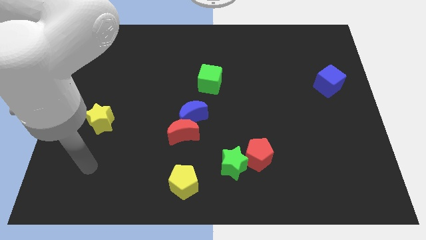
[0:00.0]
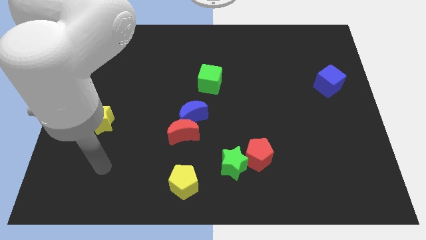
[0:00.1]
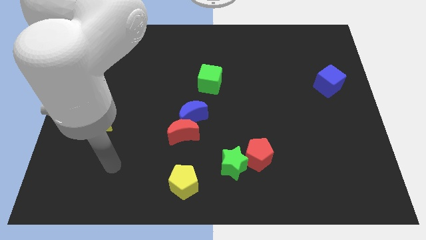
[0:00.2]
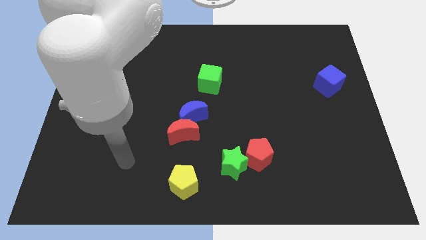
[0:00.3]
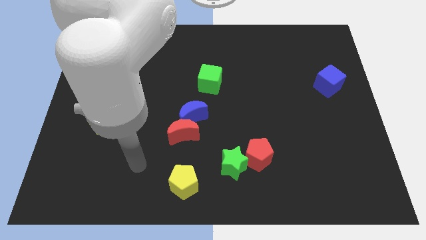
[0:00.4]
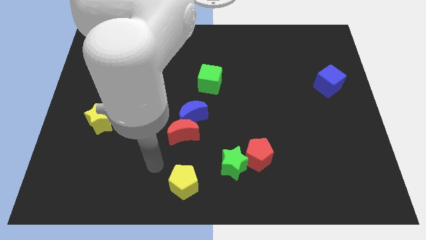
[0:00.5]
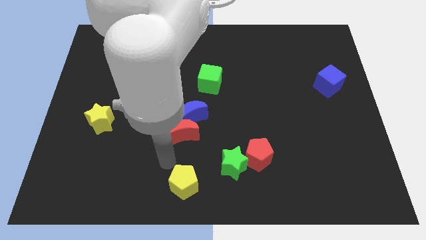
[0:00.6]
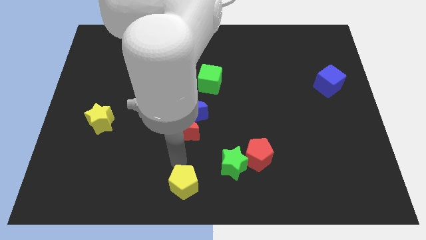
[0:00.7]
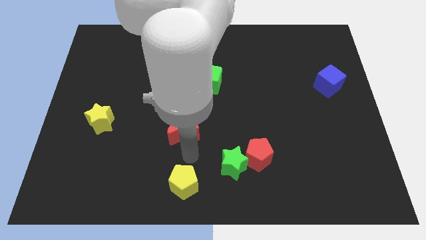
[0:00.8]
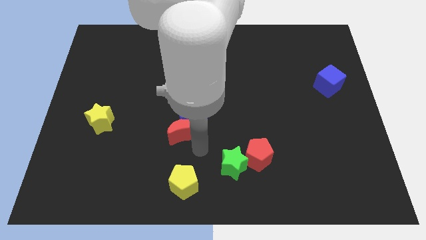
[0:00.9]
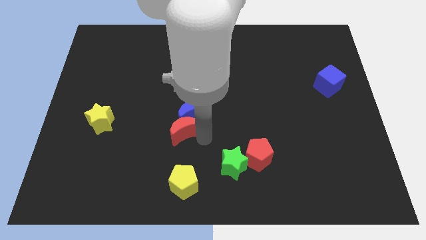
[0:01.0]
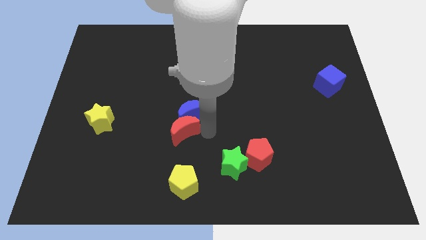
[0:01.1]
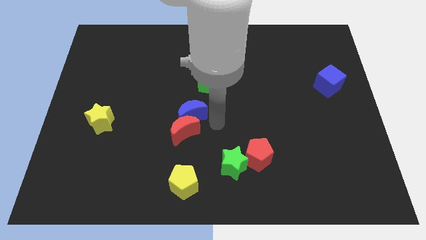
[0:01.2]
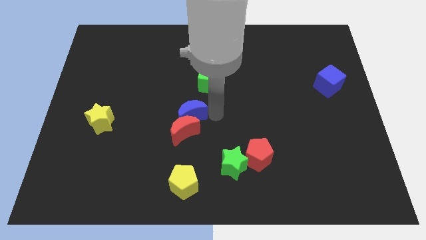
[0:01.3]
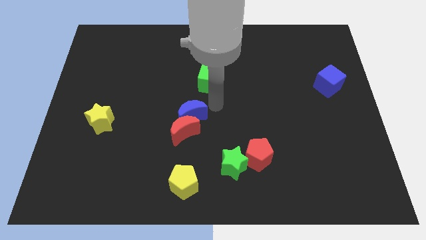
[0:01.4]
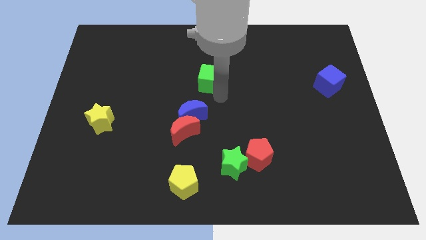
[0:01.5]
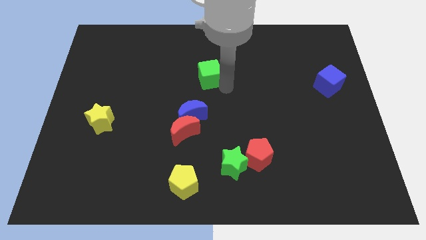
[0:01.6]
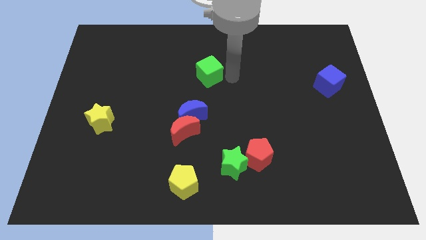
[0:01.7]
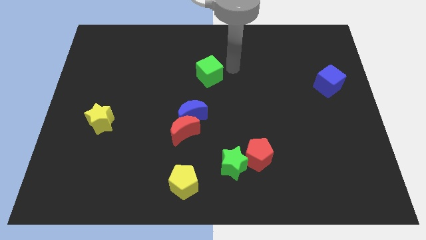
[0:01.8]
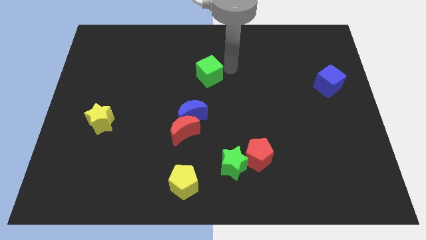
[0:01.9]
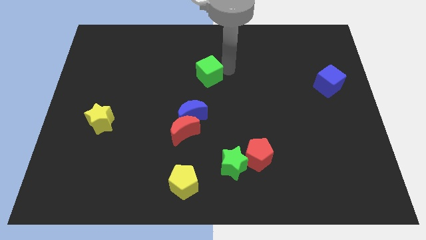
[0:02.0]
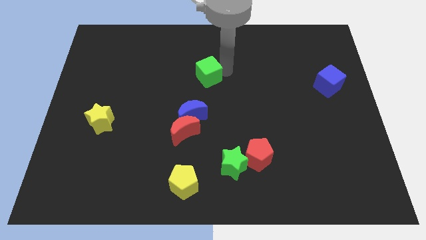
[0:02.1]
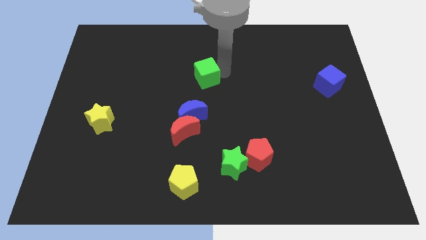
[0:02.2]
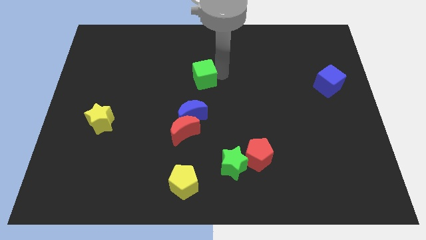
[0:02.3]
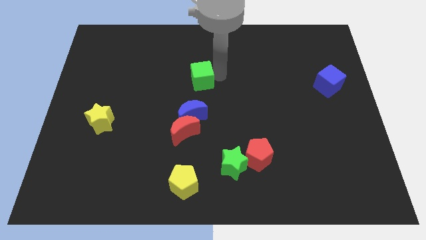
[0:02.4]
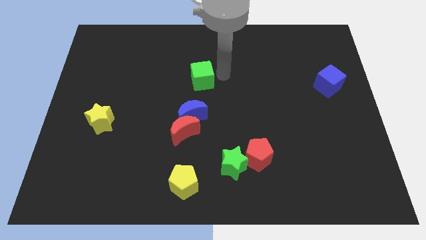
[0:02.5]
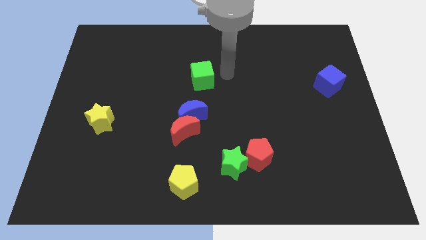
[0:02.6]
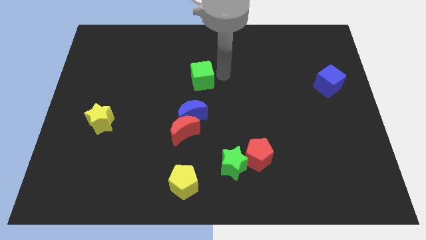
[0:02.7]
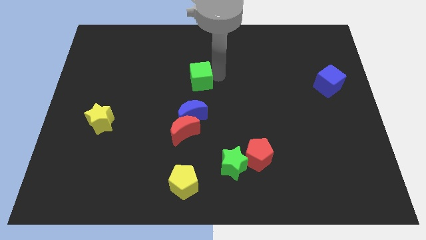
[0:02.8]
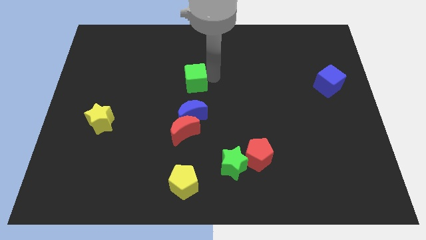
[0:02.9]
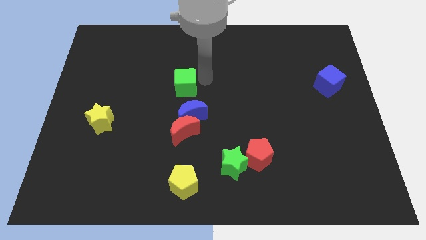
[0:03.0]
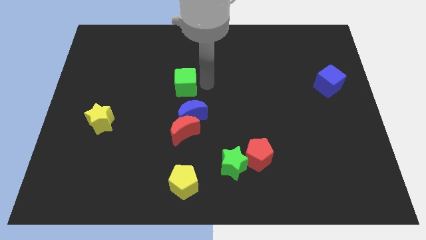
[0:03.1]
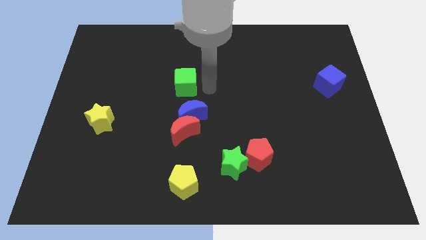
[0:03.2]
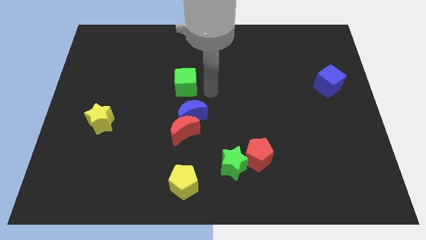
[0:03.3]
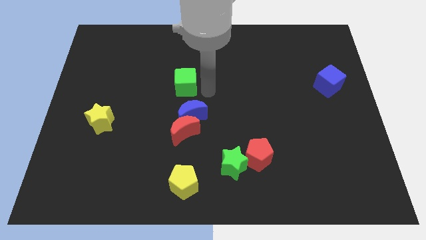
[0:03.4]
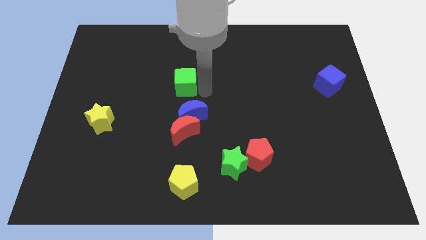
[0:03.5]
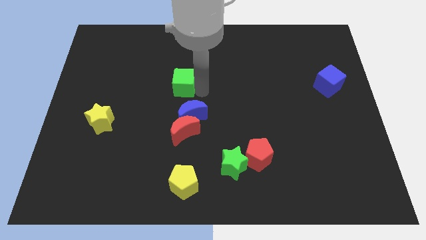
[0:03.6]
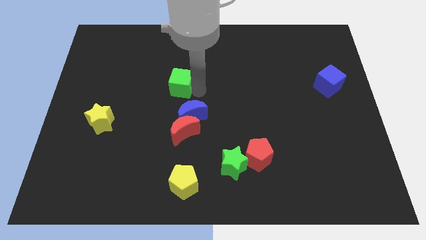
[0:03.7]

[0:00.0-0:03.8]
slightly move the green cube left

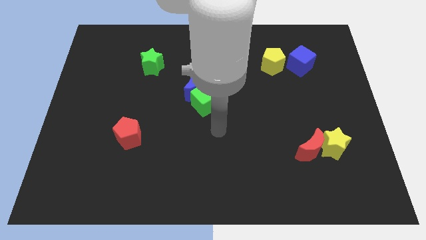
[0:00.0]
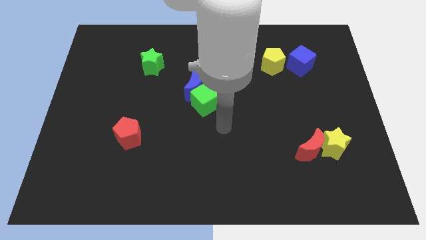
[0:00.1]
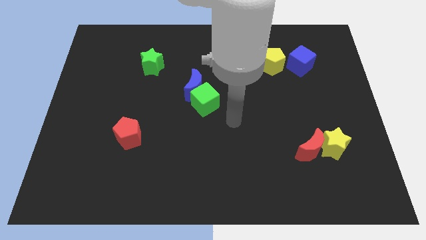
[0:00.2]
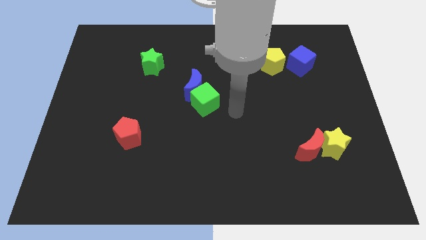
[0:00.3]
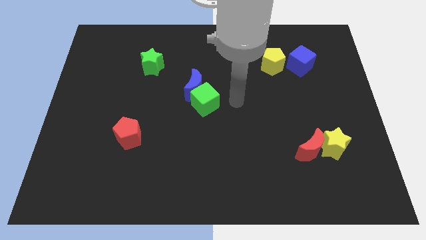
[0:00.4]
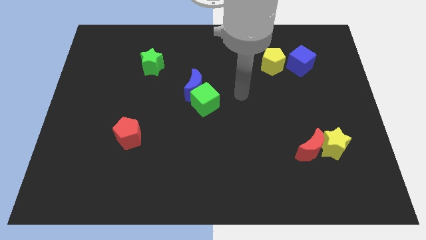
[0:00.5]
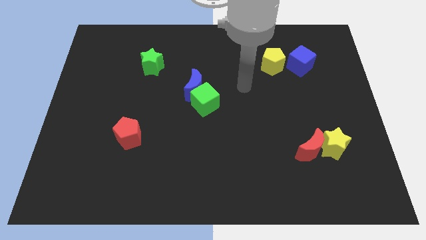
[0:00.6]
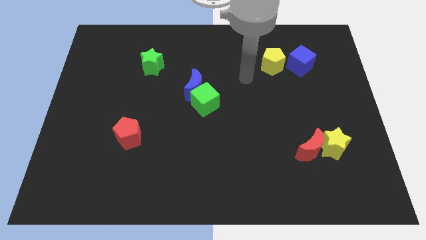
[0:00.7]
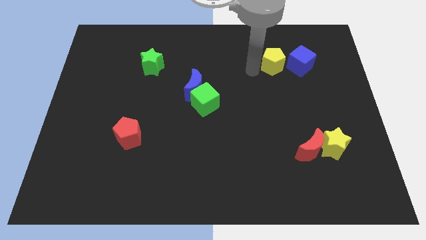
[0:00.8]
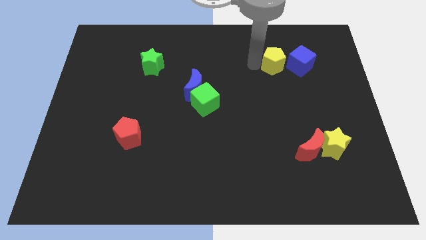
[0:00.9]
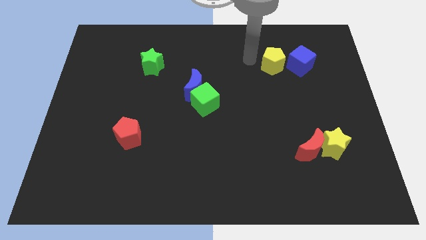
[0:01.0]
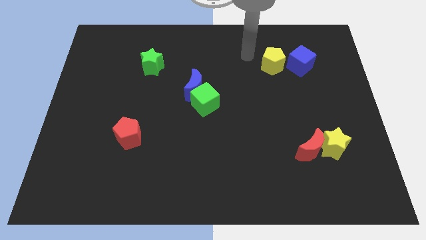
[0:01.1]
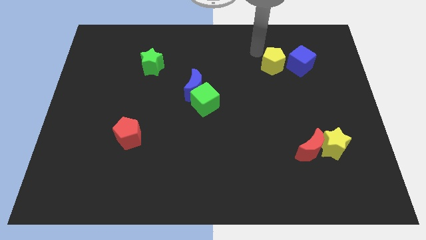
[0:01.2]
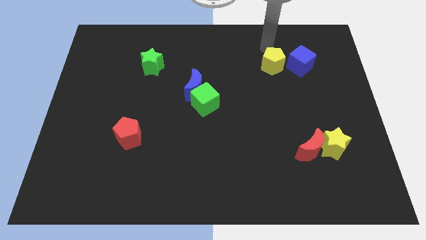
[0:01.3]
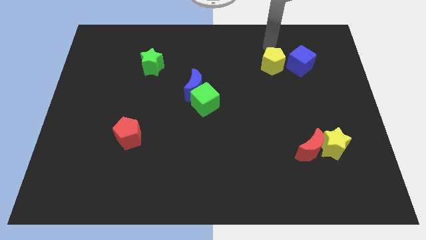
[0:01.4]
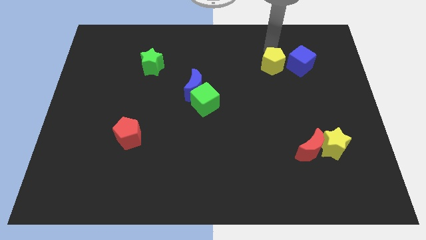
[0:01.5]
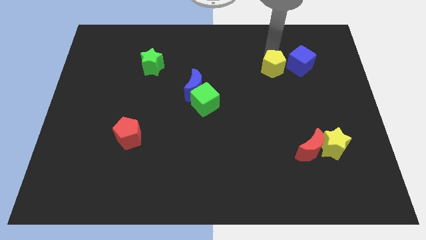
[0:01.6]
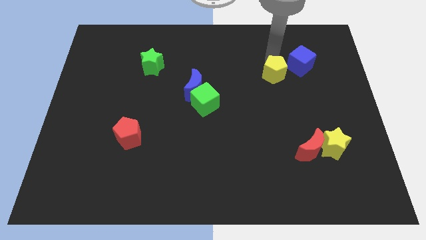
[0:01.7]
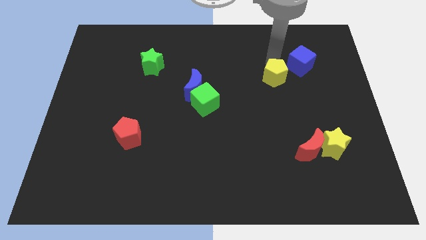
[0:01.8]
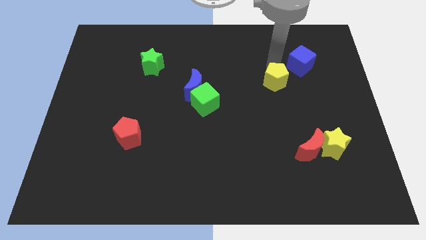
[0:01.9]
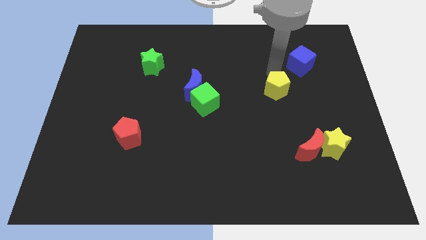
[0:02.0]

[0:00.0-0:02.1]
slightly move the yellow pentagon downwards

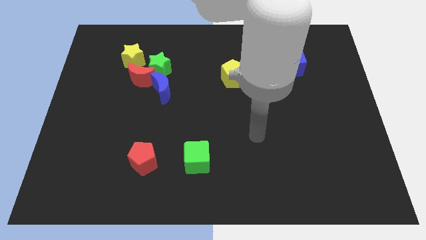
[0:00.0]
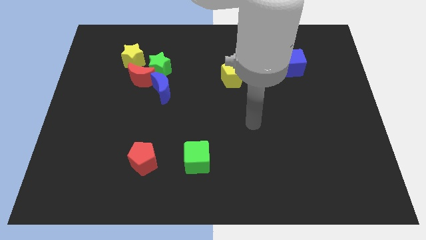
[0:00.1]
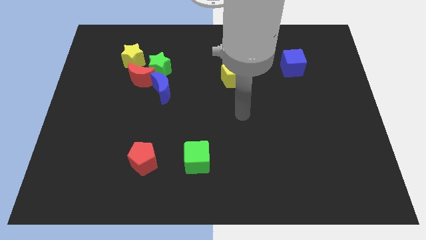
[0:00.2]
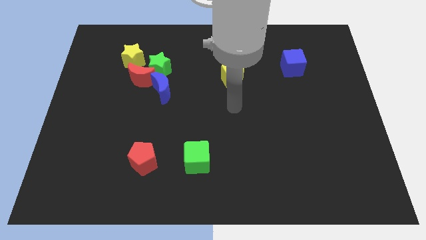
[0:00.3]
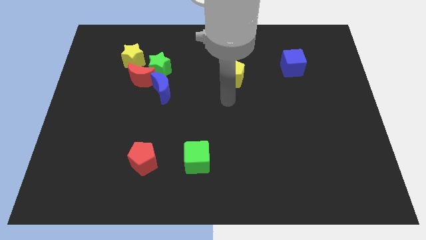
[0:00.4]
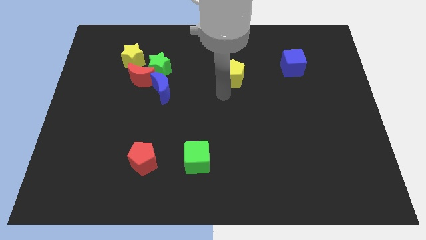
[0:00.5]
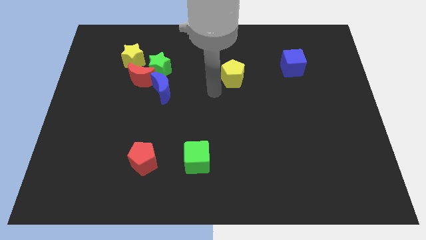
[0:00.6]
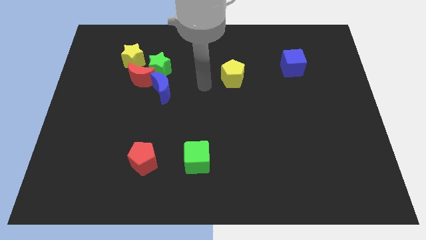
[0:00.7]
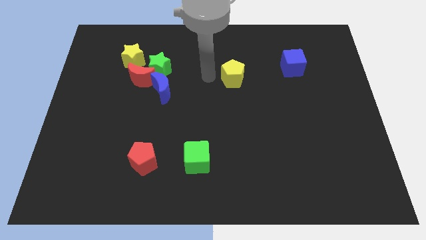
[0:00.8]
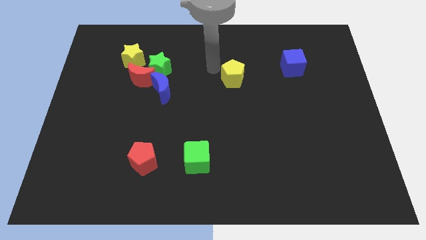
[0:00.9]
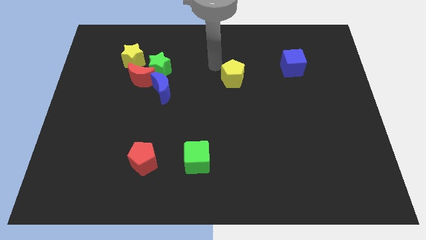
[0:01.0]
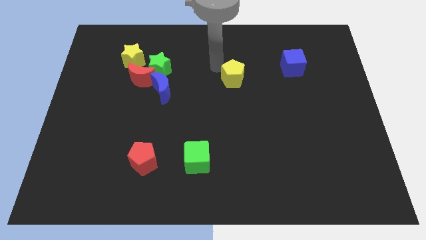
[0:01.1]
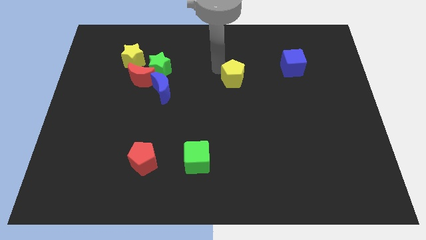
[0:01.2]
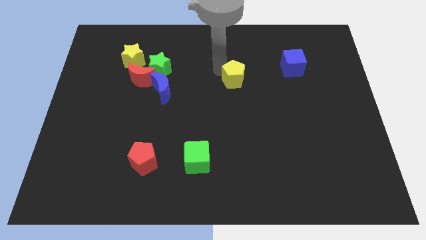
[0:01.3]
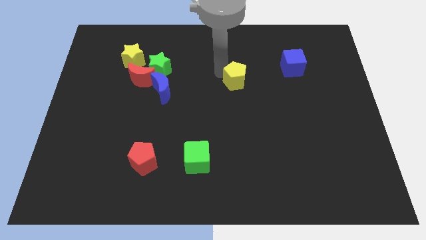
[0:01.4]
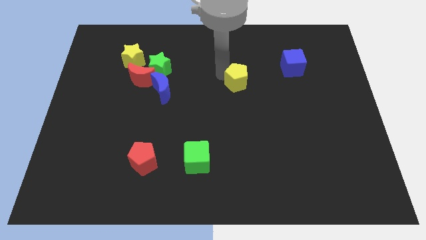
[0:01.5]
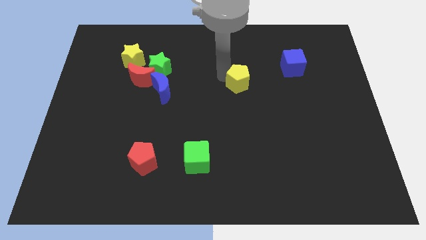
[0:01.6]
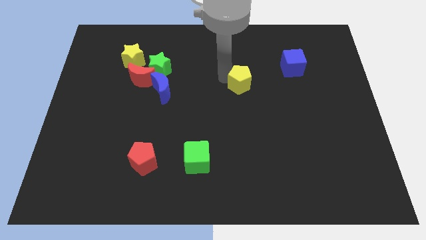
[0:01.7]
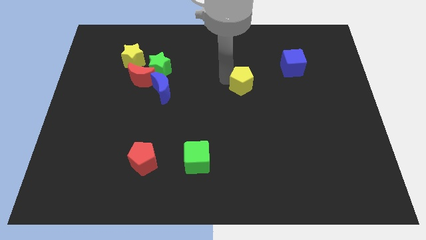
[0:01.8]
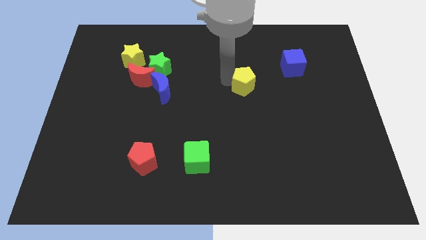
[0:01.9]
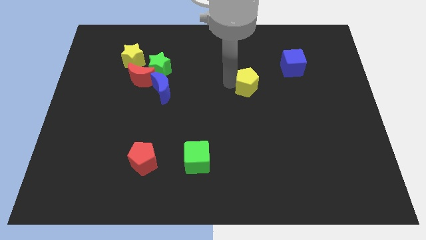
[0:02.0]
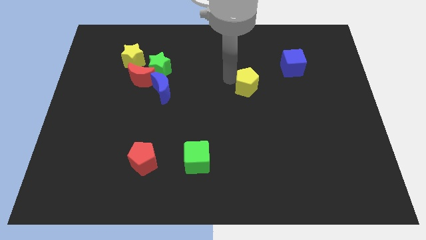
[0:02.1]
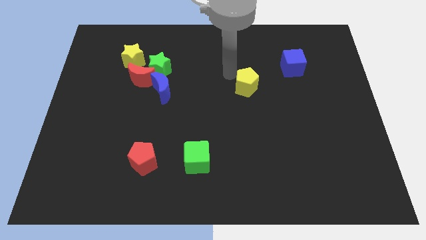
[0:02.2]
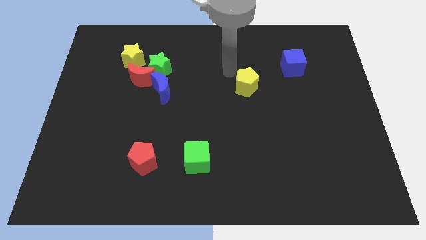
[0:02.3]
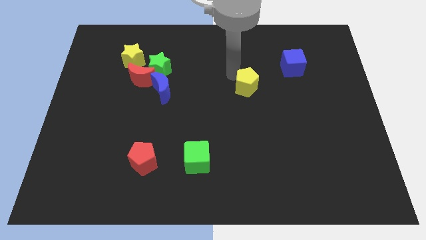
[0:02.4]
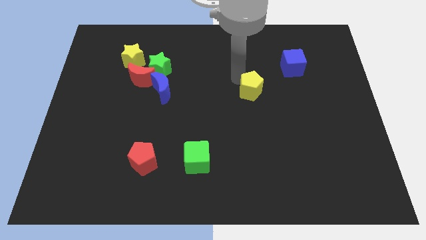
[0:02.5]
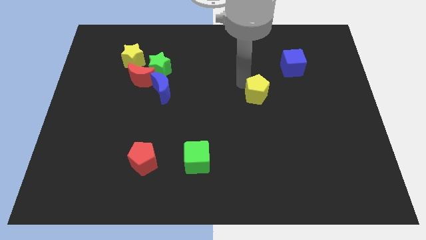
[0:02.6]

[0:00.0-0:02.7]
move the yellow pentagon diagonally down and right a bit
